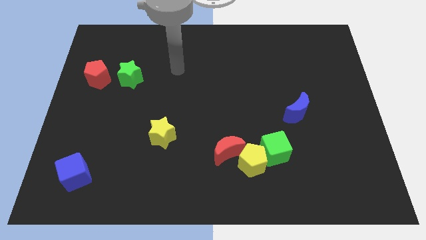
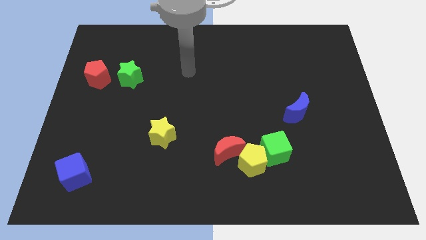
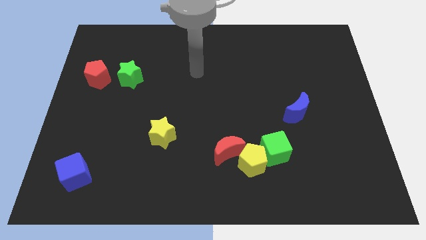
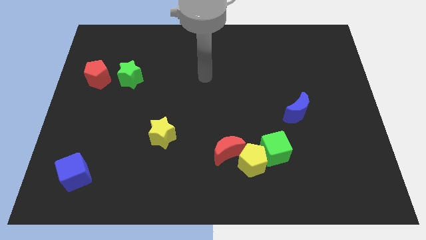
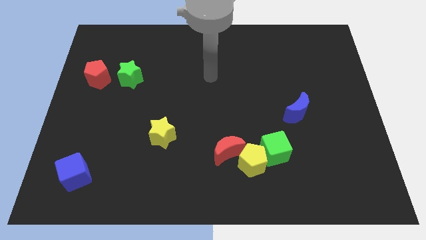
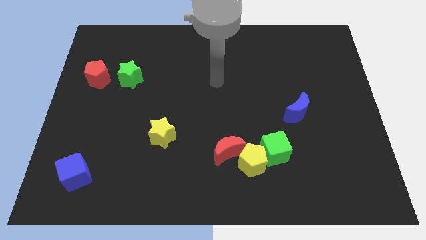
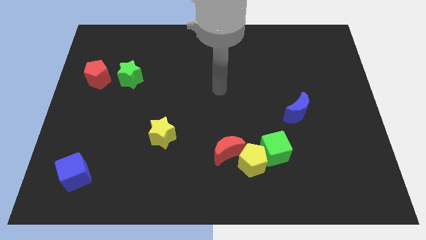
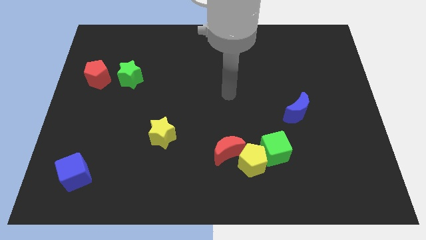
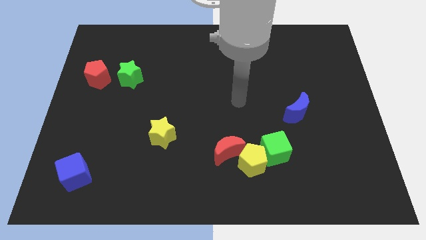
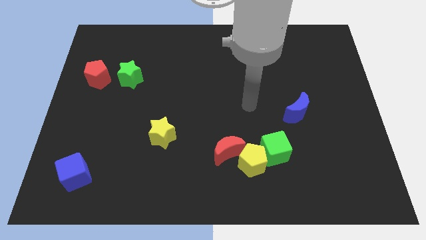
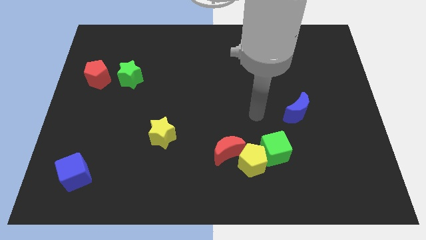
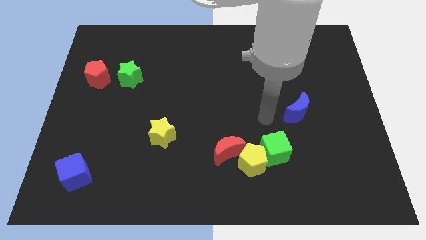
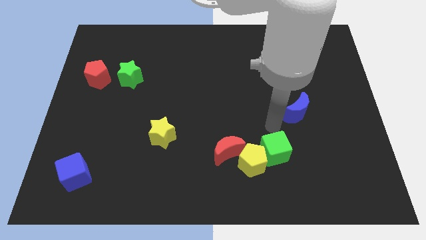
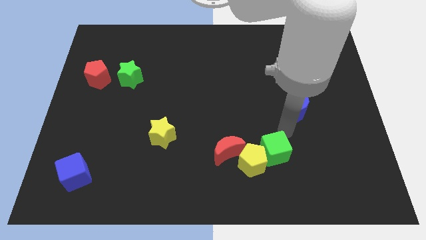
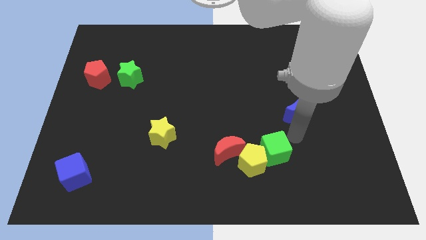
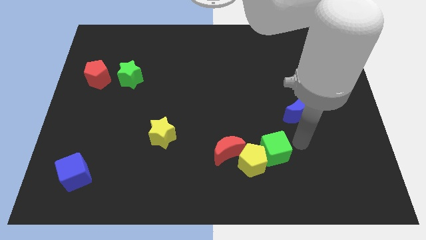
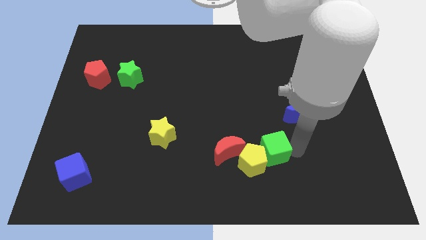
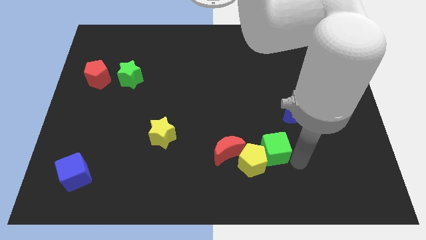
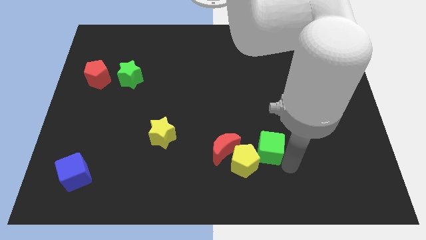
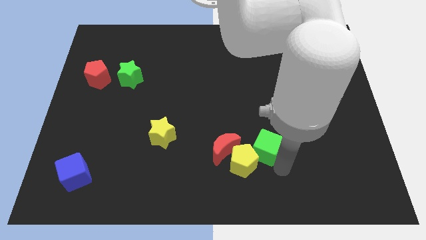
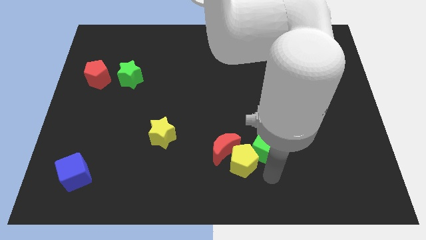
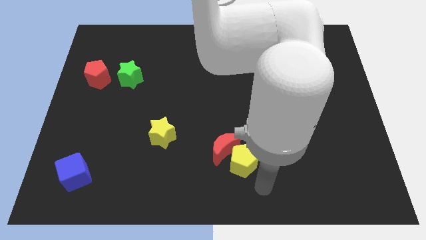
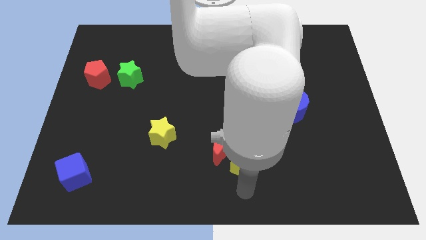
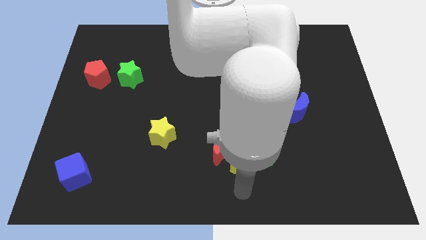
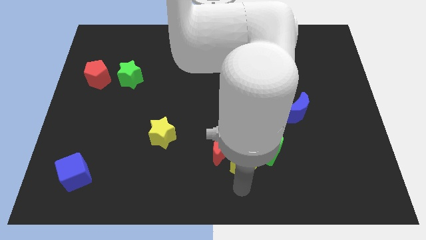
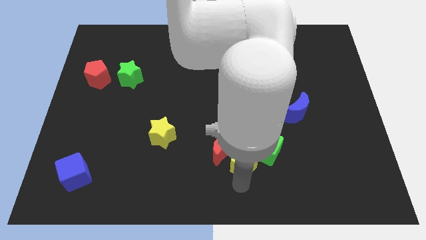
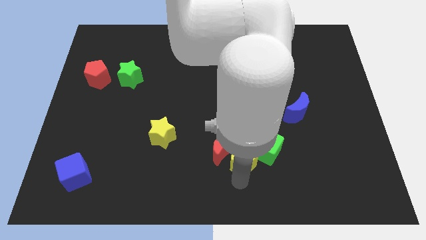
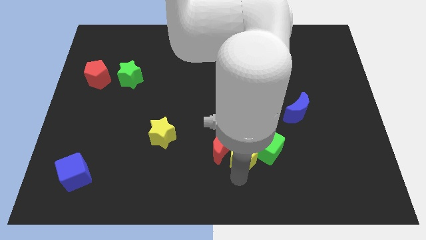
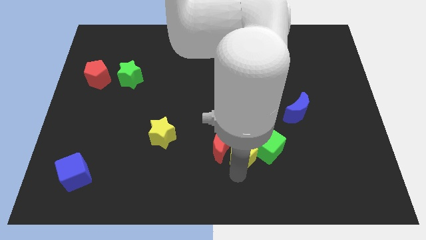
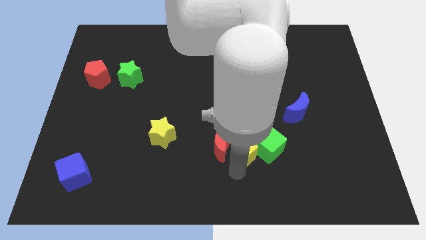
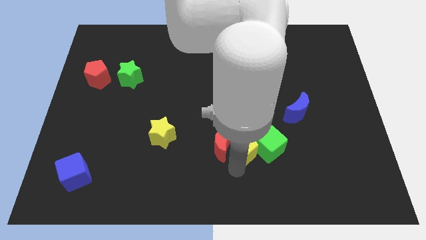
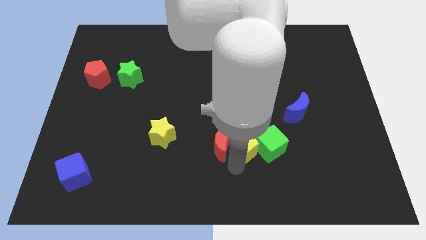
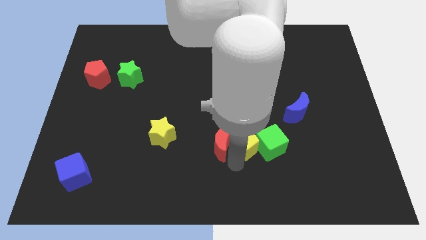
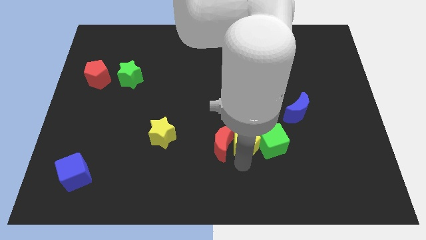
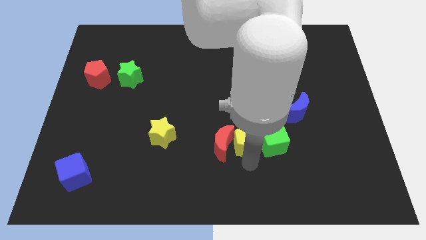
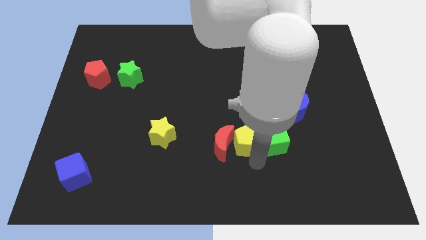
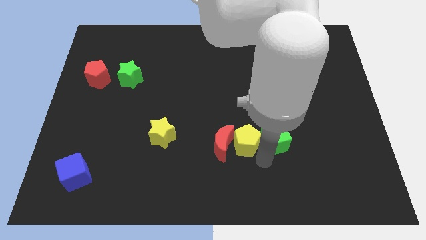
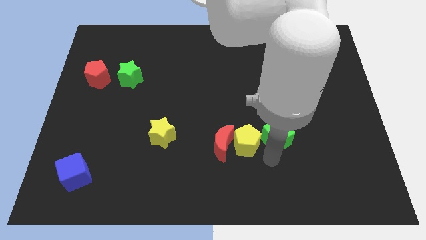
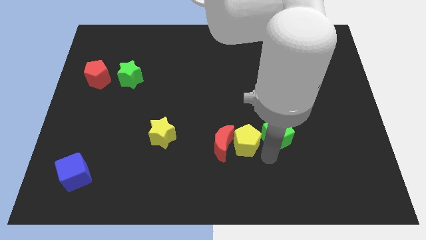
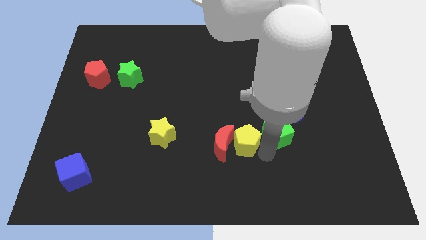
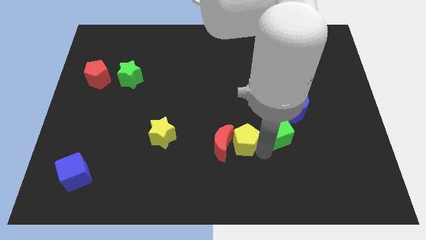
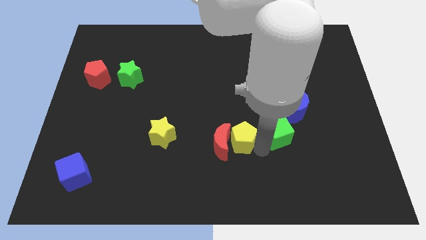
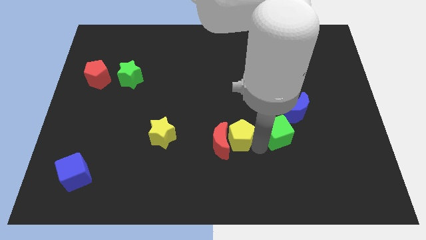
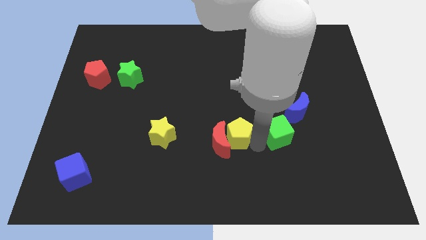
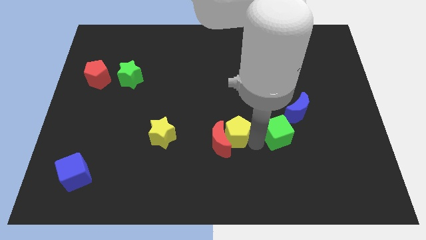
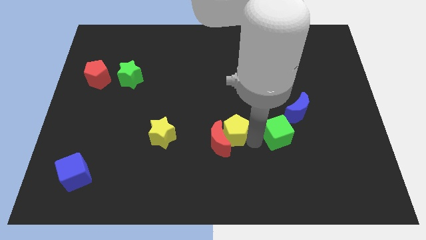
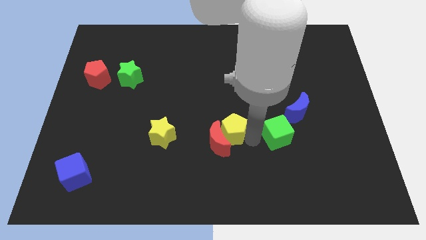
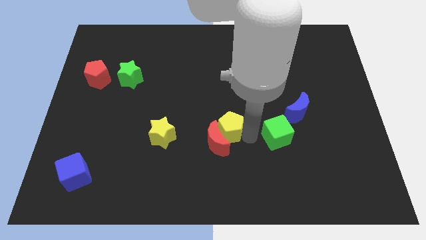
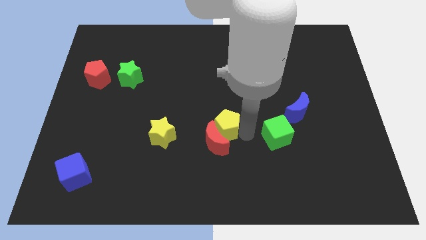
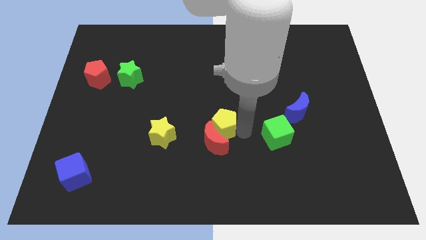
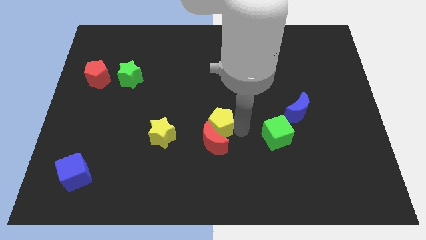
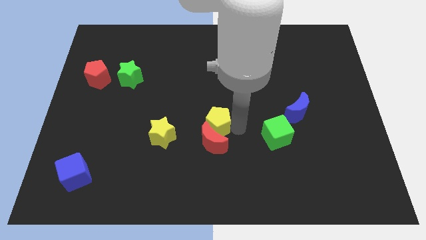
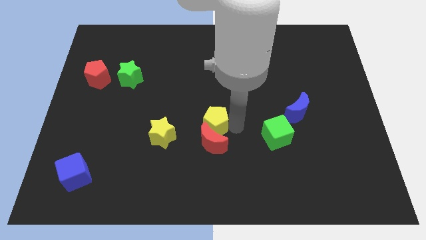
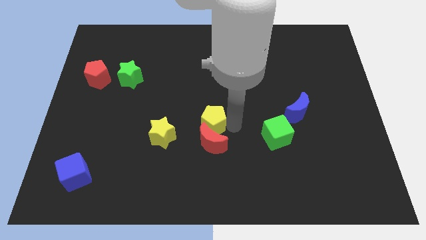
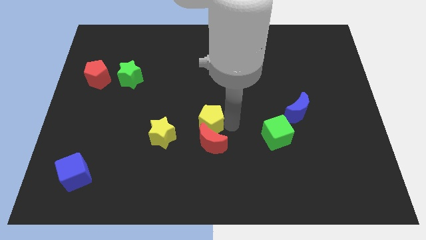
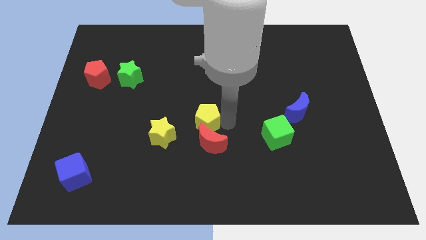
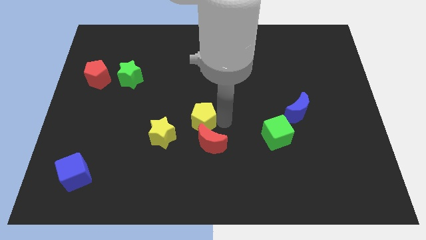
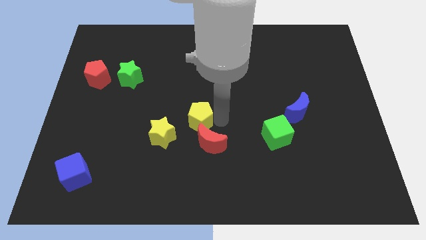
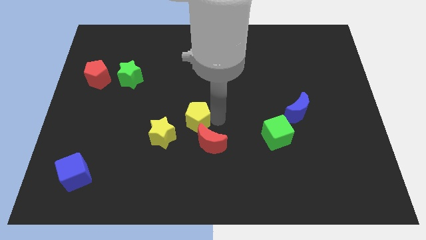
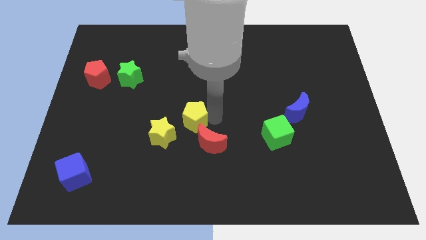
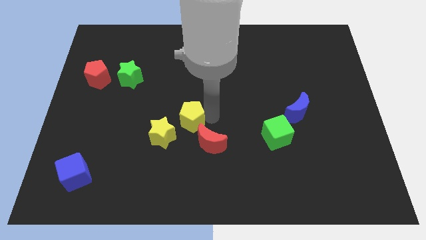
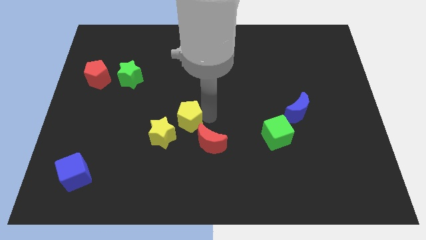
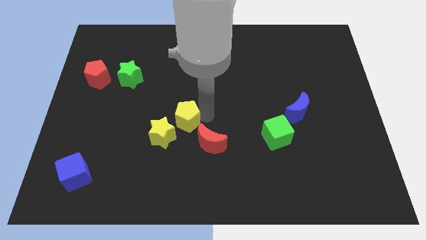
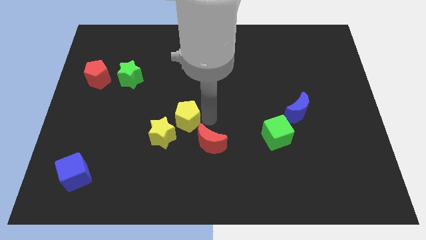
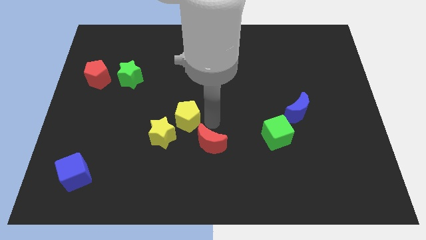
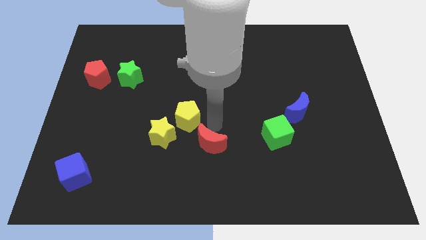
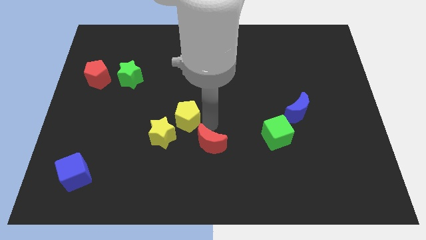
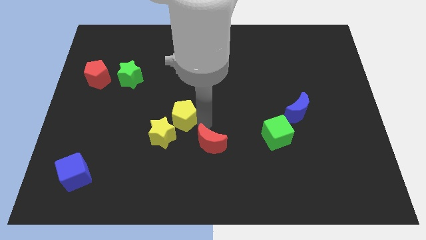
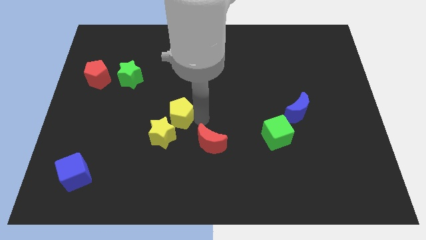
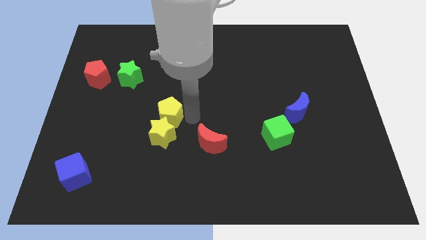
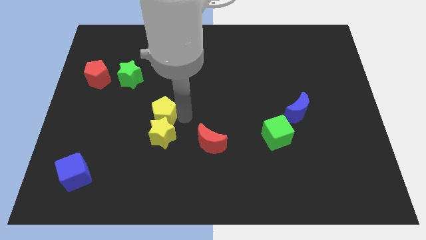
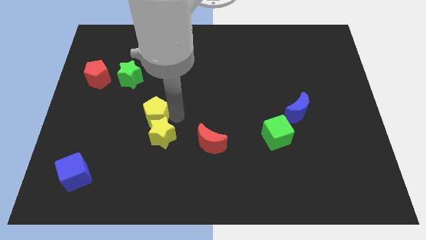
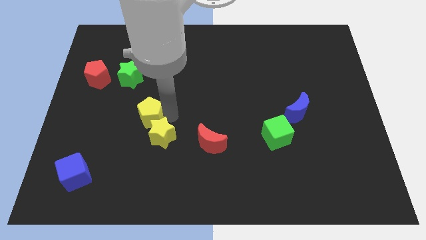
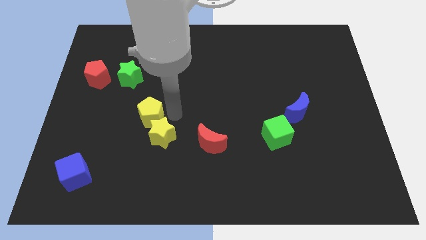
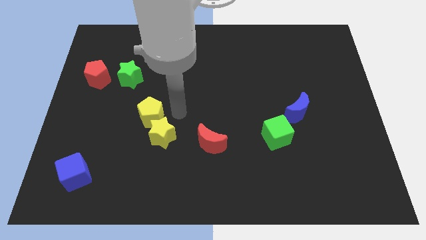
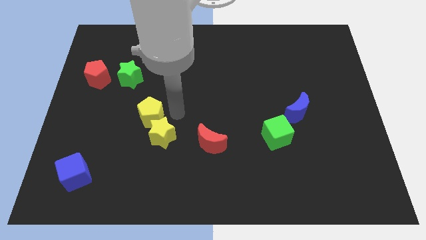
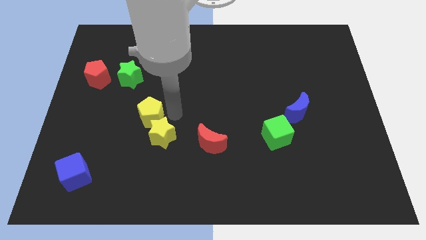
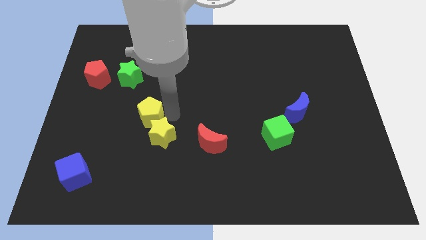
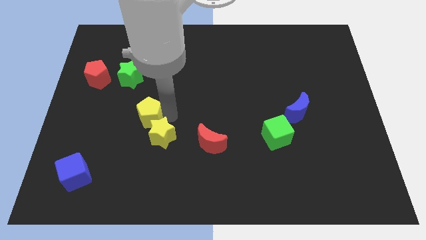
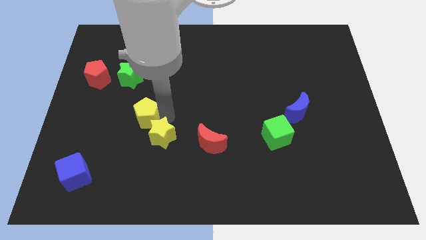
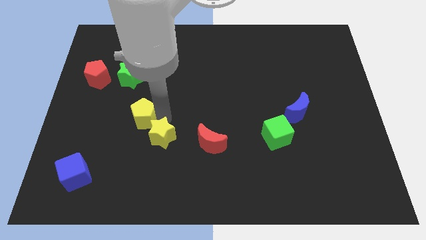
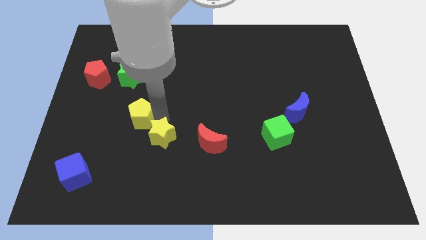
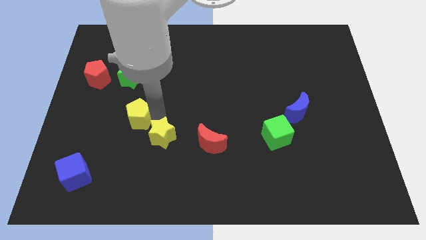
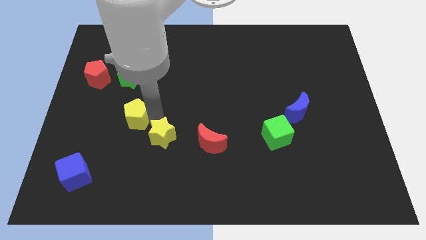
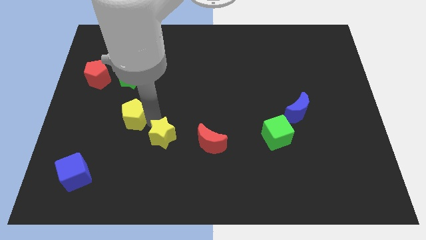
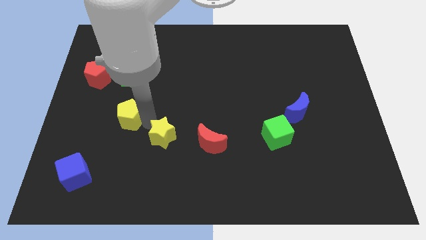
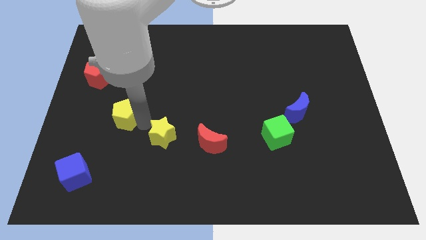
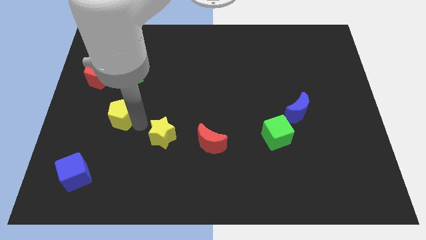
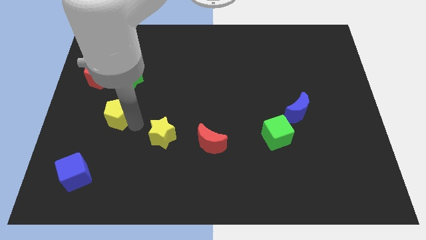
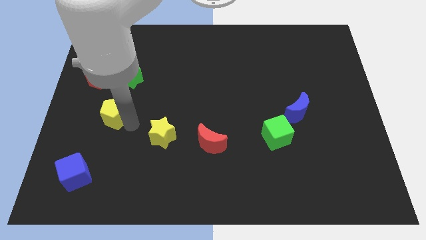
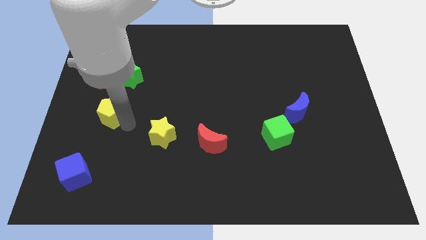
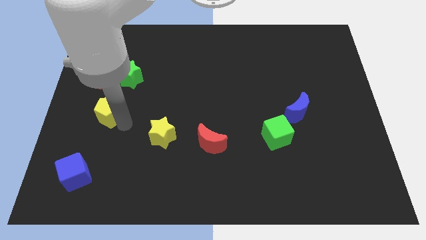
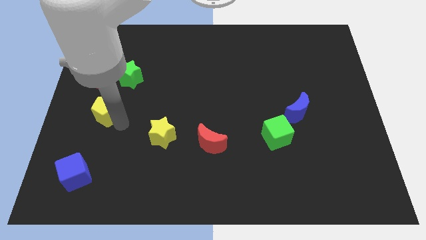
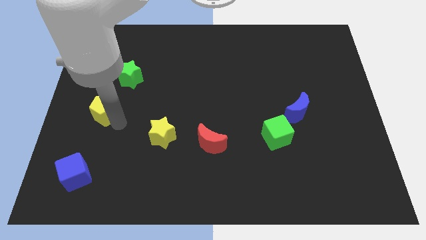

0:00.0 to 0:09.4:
move the yellow pentagon to the center left
